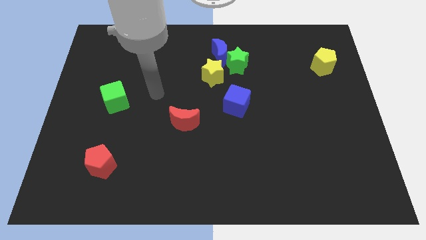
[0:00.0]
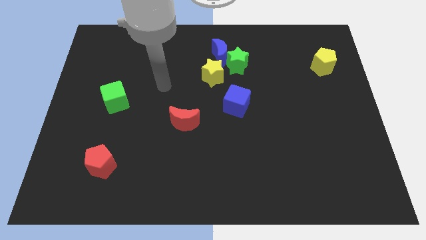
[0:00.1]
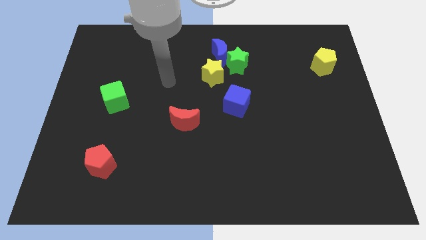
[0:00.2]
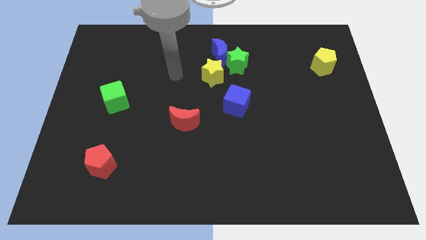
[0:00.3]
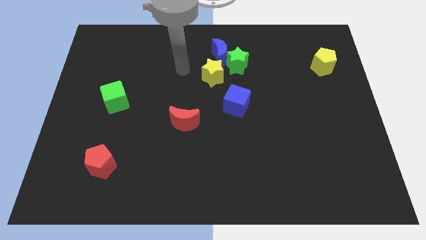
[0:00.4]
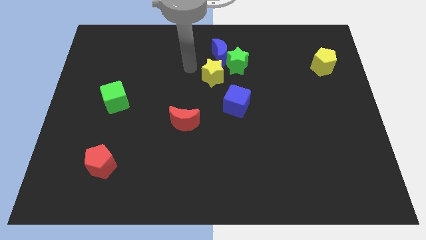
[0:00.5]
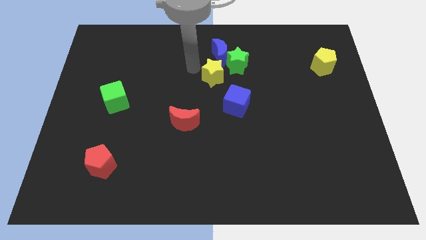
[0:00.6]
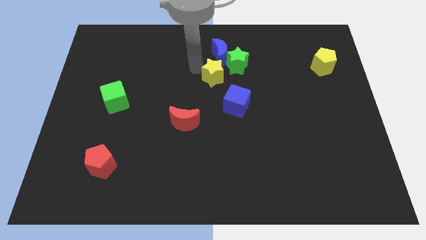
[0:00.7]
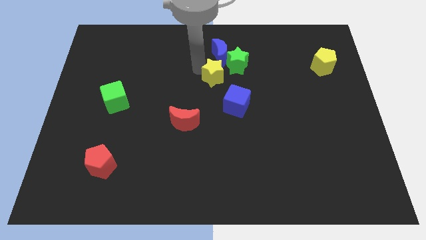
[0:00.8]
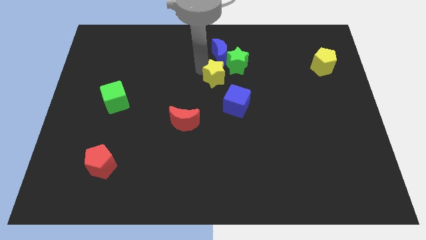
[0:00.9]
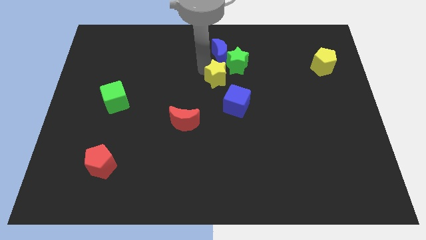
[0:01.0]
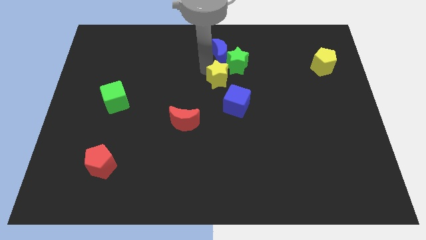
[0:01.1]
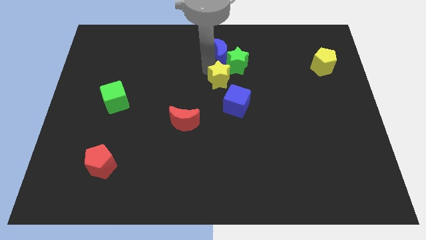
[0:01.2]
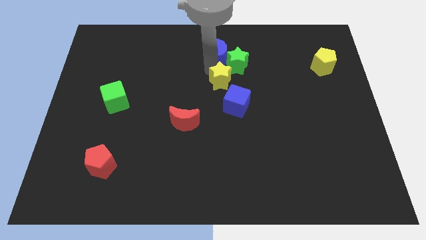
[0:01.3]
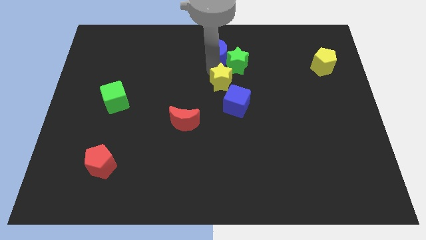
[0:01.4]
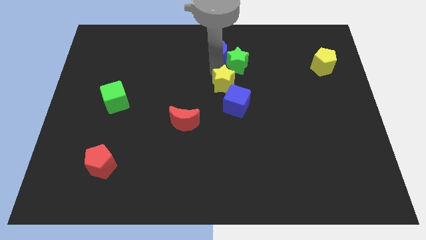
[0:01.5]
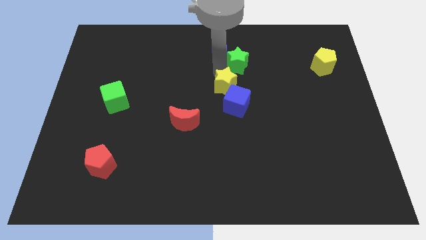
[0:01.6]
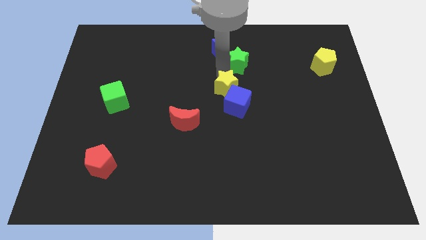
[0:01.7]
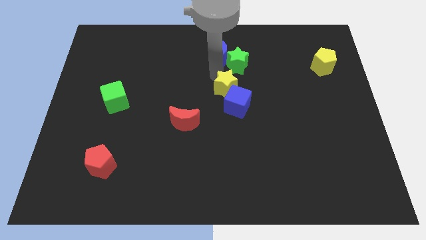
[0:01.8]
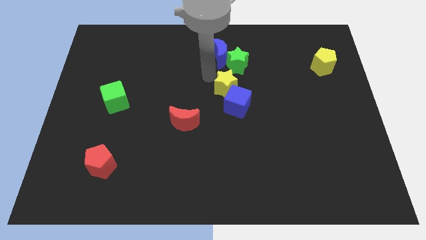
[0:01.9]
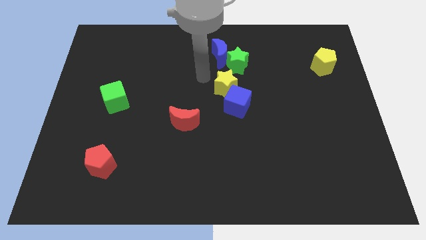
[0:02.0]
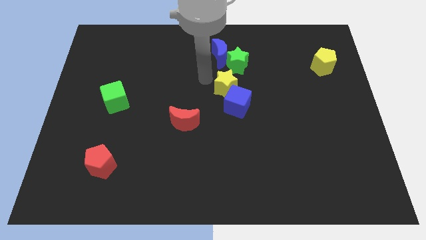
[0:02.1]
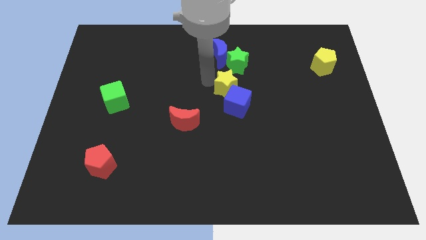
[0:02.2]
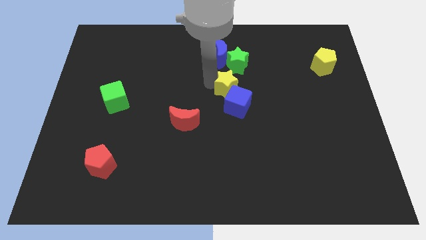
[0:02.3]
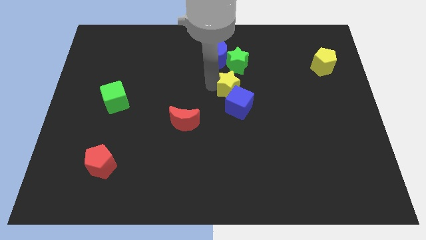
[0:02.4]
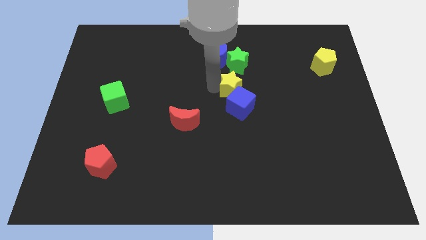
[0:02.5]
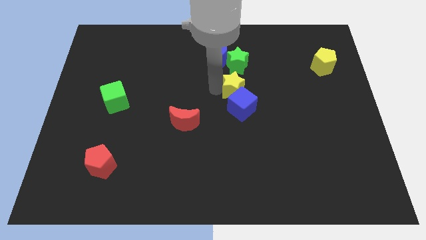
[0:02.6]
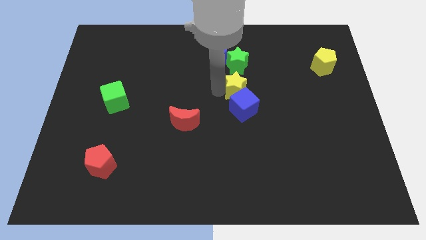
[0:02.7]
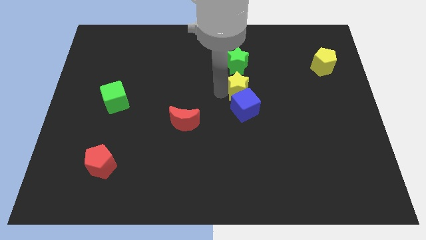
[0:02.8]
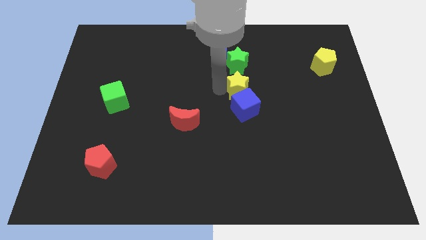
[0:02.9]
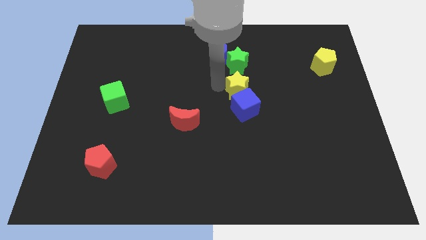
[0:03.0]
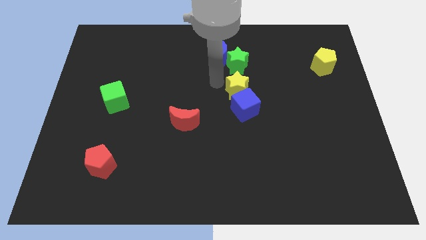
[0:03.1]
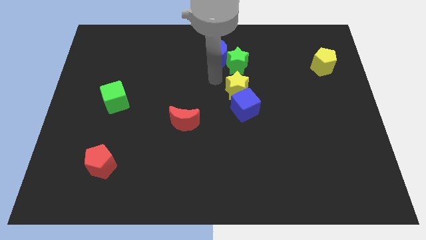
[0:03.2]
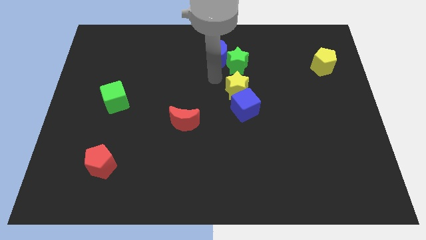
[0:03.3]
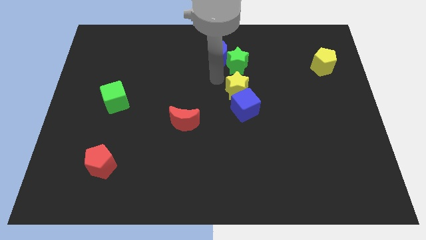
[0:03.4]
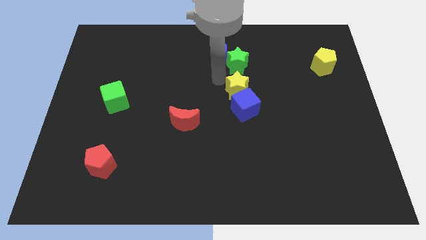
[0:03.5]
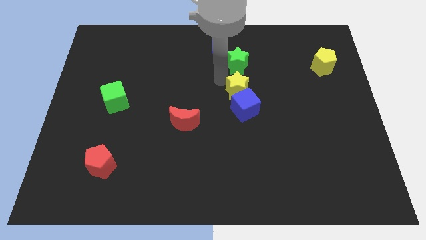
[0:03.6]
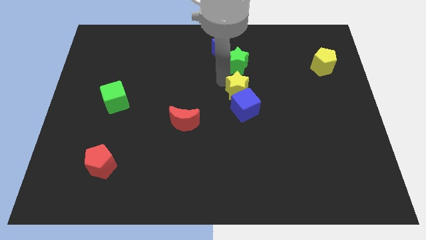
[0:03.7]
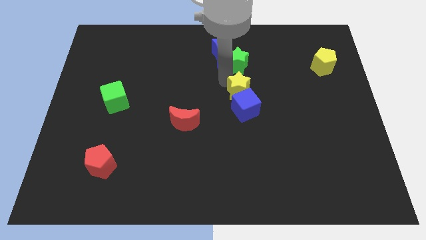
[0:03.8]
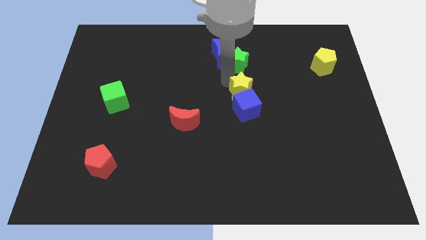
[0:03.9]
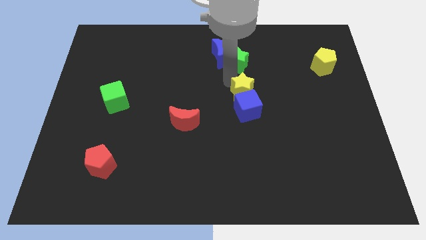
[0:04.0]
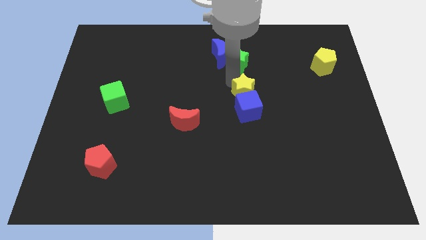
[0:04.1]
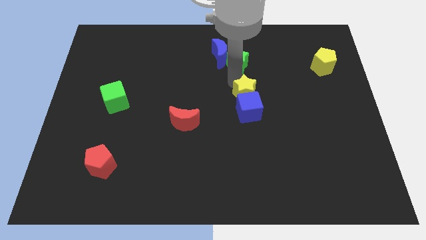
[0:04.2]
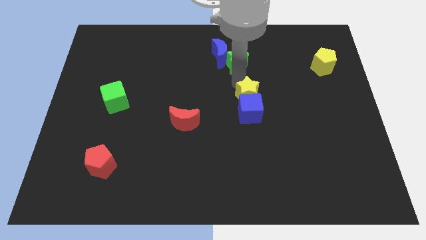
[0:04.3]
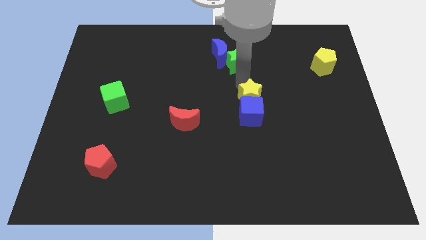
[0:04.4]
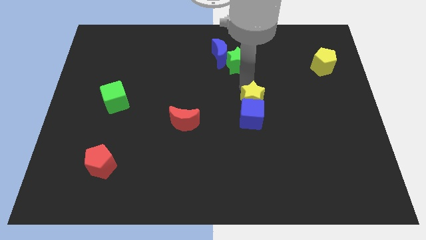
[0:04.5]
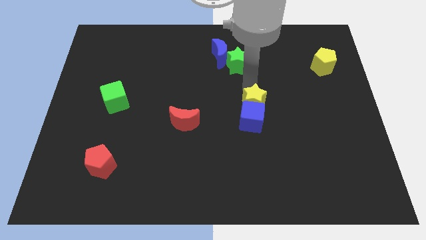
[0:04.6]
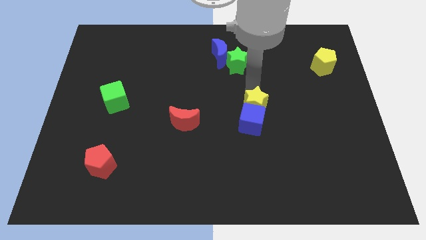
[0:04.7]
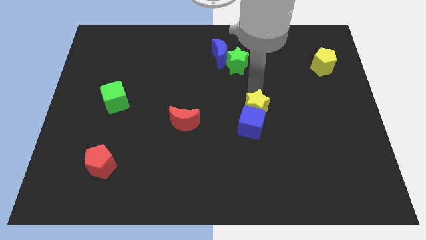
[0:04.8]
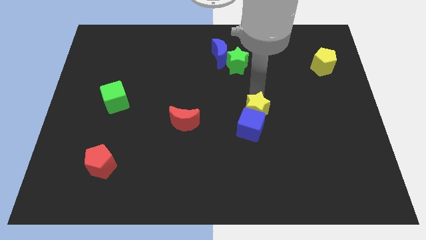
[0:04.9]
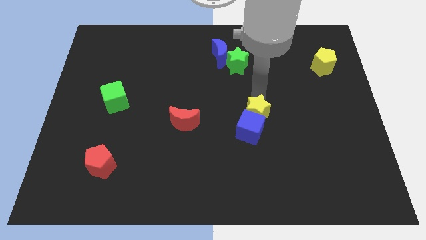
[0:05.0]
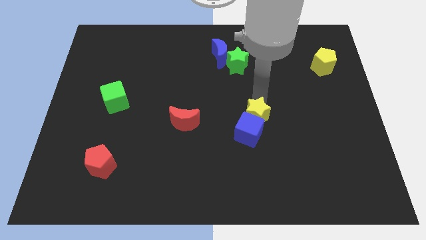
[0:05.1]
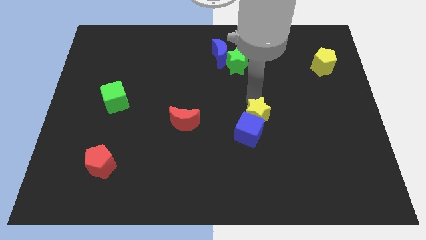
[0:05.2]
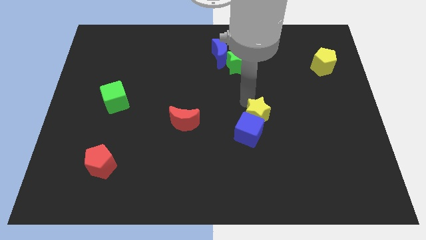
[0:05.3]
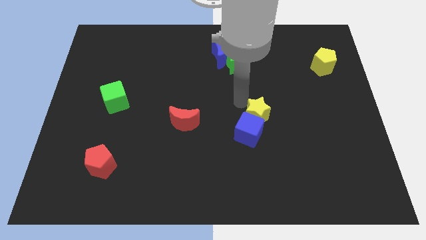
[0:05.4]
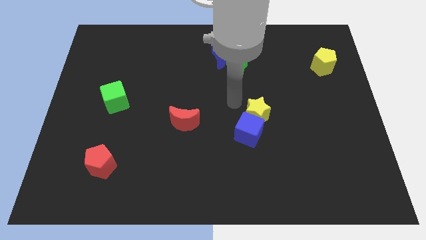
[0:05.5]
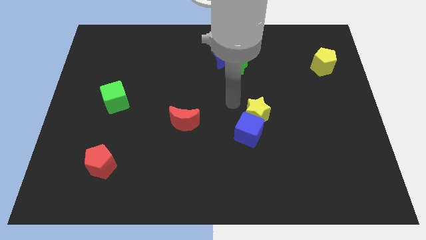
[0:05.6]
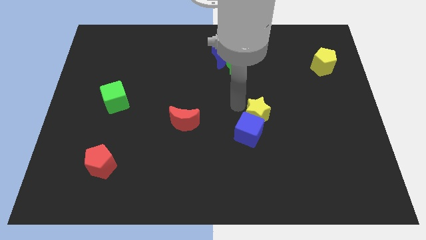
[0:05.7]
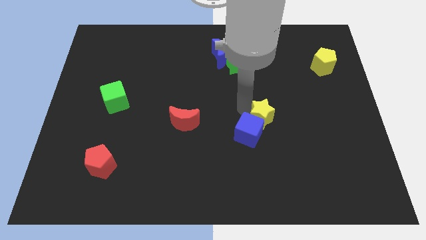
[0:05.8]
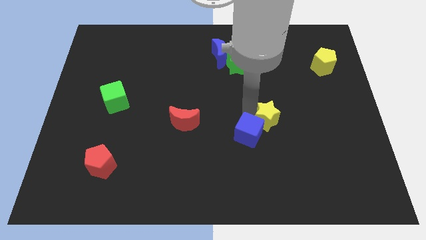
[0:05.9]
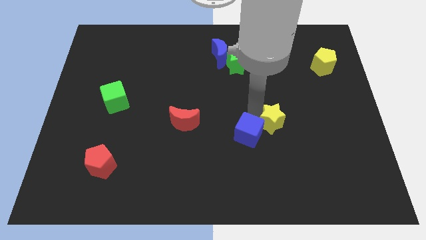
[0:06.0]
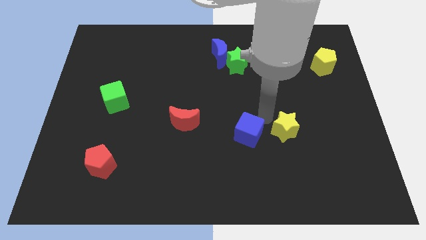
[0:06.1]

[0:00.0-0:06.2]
move the yellow star down and then right

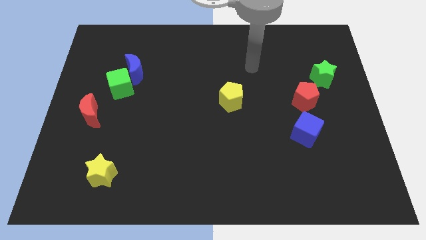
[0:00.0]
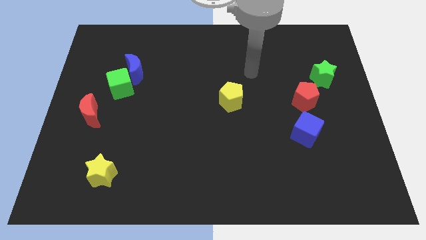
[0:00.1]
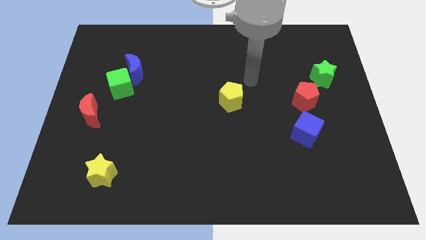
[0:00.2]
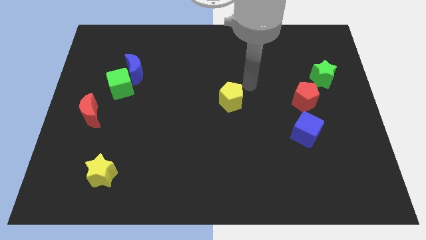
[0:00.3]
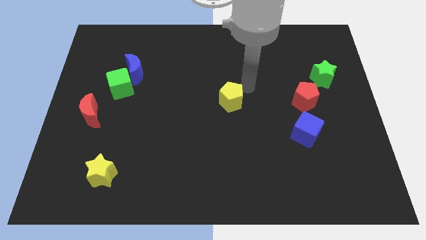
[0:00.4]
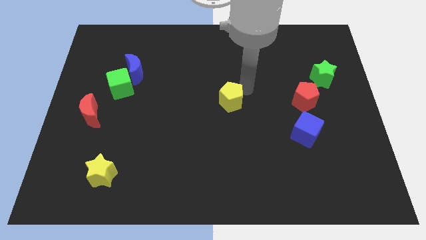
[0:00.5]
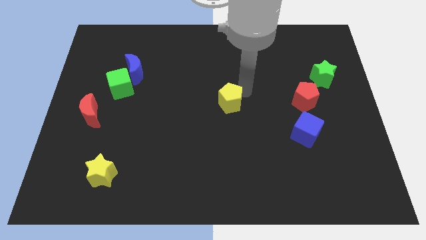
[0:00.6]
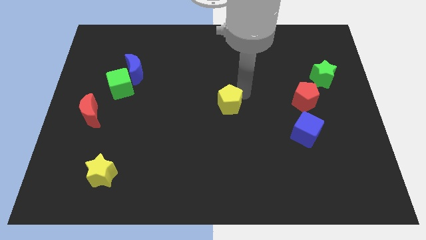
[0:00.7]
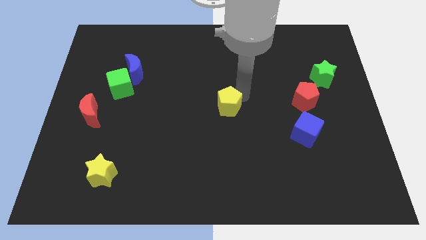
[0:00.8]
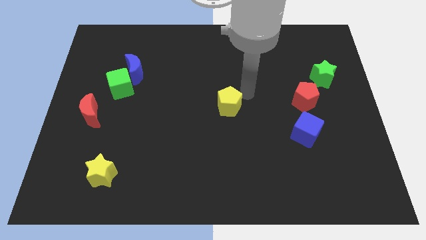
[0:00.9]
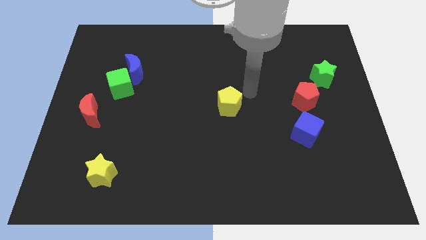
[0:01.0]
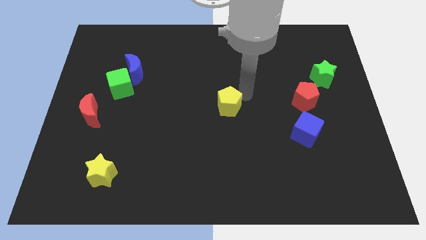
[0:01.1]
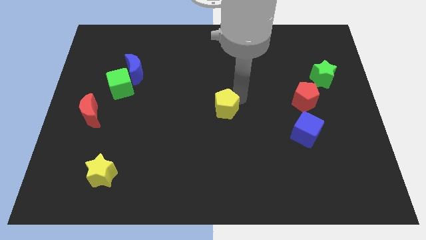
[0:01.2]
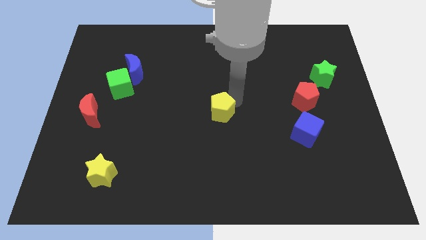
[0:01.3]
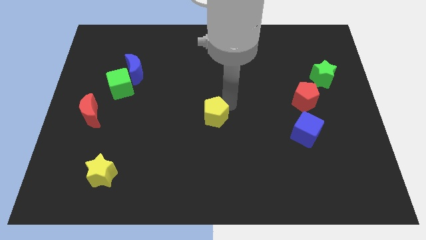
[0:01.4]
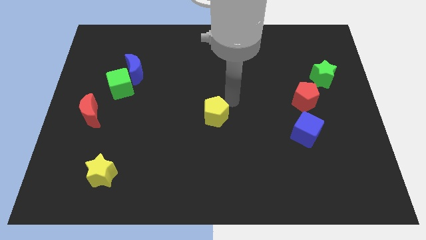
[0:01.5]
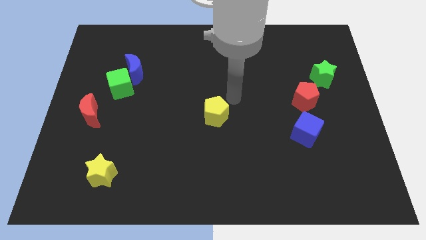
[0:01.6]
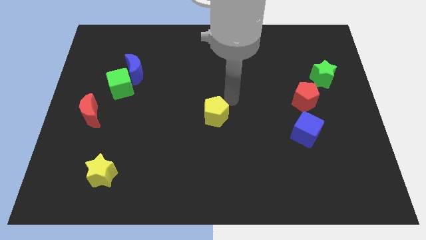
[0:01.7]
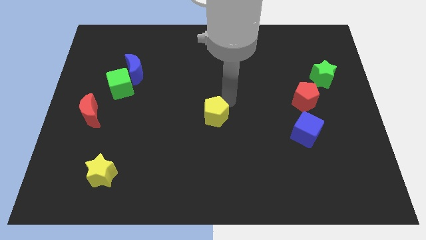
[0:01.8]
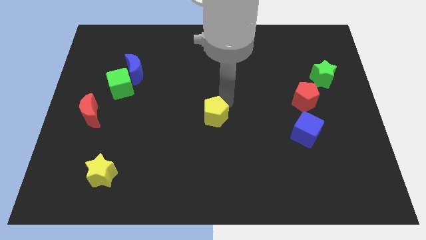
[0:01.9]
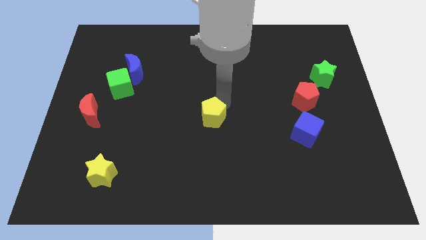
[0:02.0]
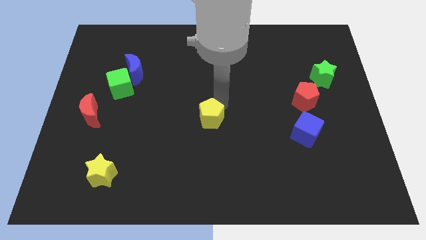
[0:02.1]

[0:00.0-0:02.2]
move the yellow pentagon down and left diagonally a bit
